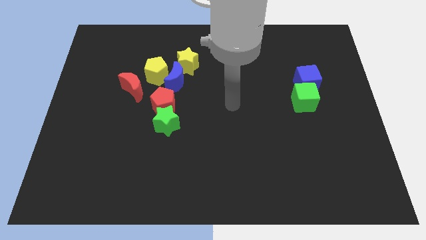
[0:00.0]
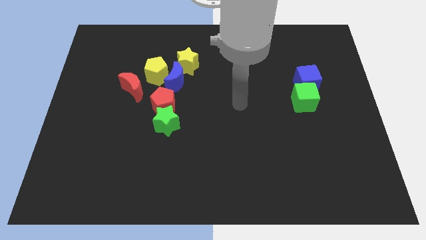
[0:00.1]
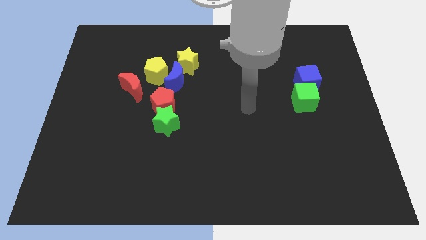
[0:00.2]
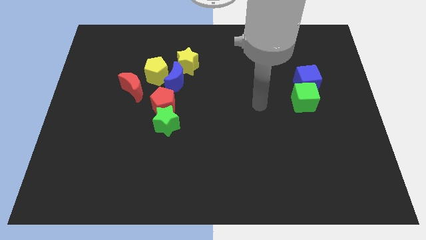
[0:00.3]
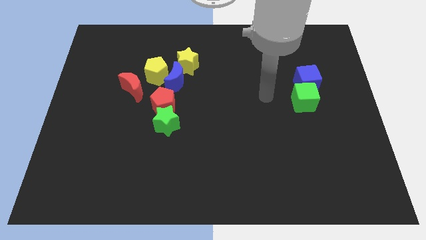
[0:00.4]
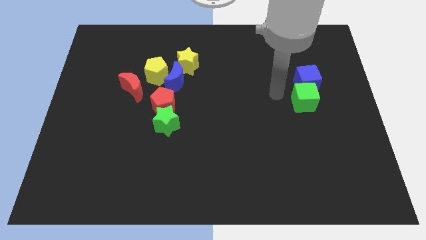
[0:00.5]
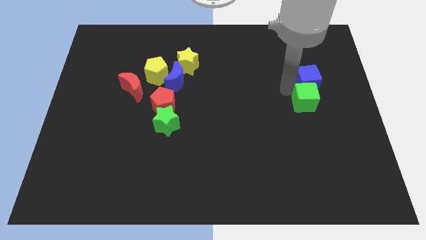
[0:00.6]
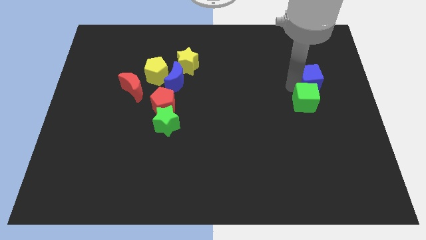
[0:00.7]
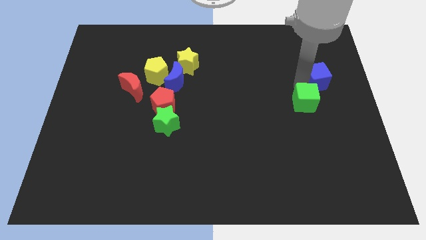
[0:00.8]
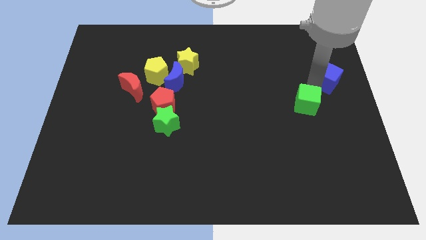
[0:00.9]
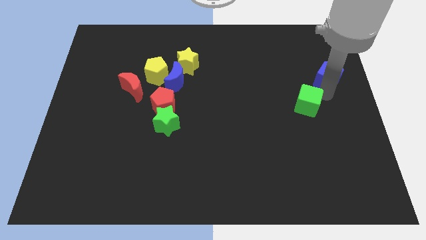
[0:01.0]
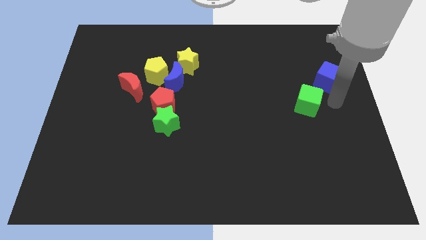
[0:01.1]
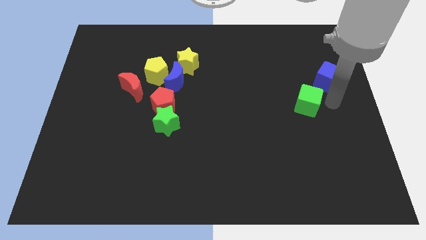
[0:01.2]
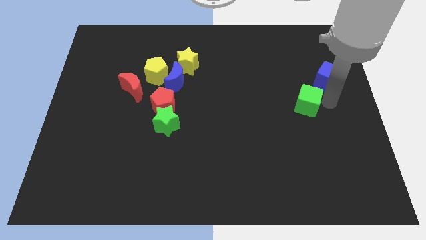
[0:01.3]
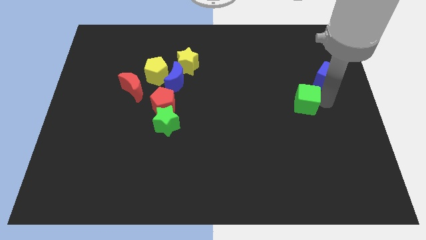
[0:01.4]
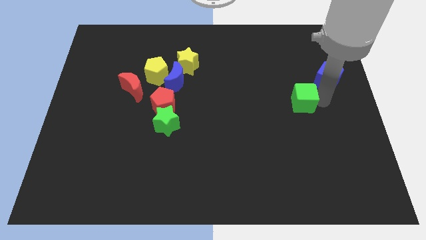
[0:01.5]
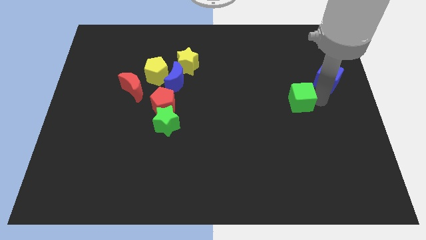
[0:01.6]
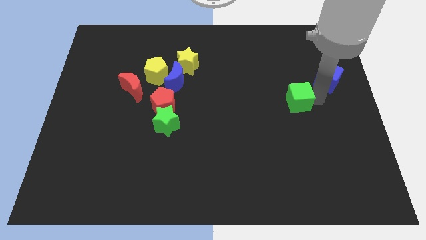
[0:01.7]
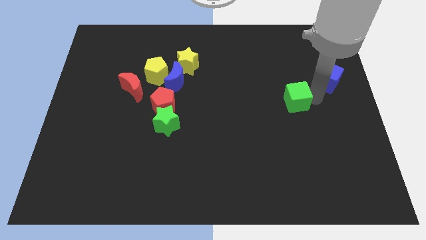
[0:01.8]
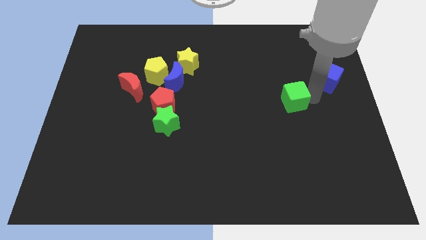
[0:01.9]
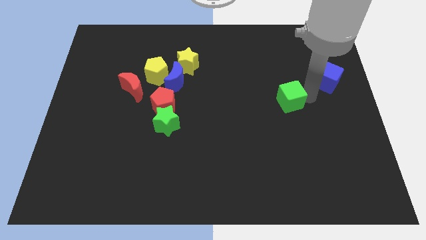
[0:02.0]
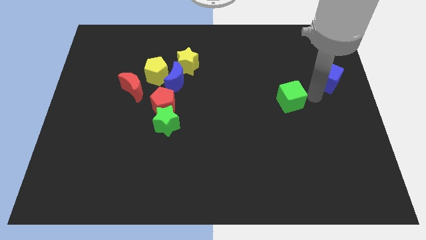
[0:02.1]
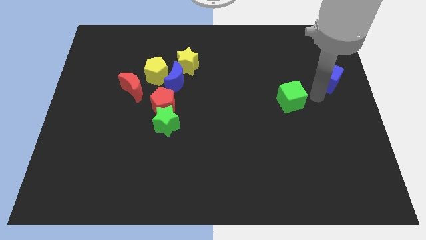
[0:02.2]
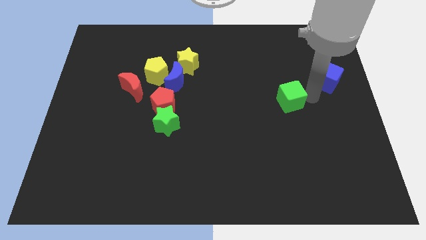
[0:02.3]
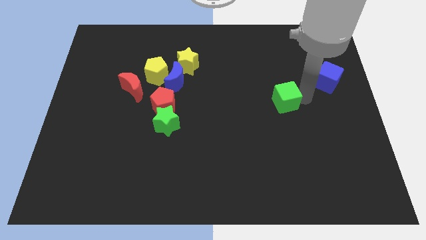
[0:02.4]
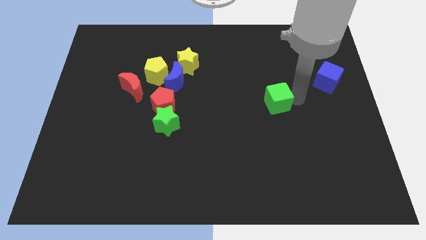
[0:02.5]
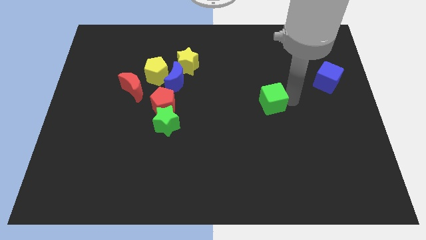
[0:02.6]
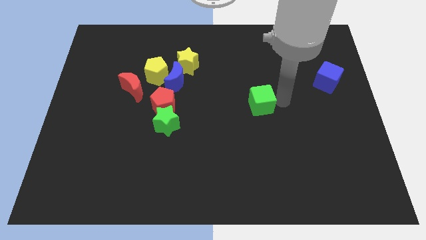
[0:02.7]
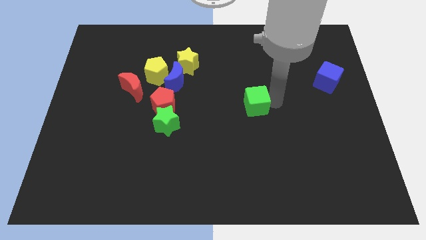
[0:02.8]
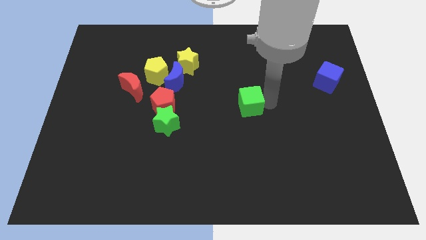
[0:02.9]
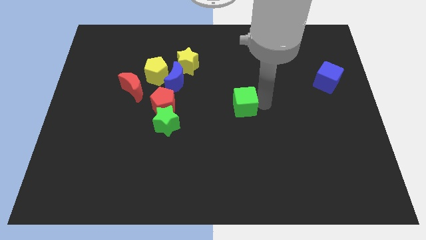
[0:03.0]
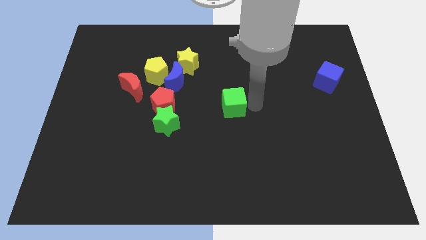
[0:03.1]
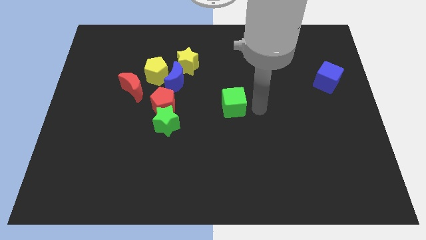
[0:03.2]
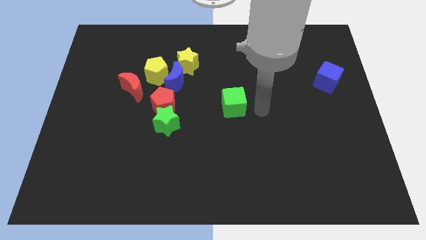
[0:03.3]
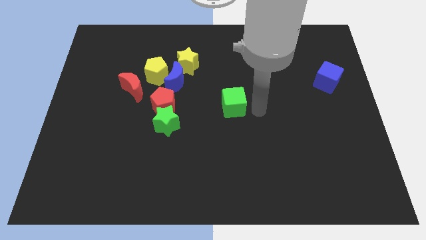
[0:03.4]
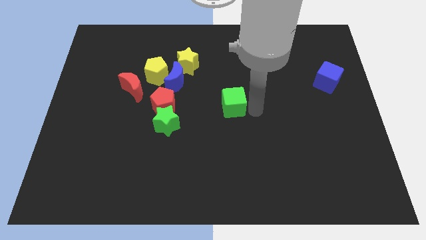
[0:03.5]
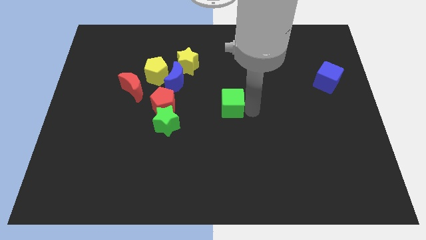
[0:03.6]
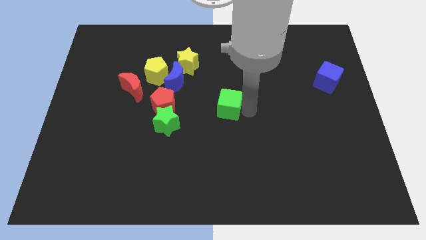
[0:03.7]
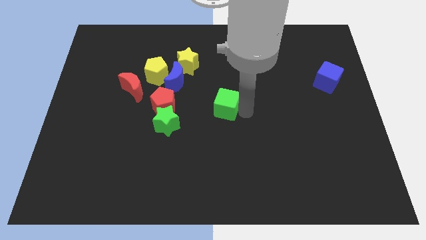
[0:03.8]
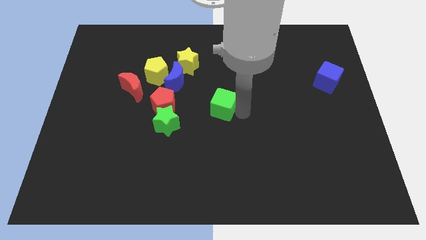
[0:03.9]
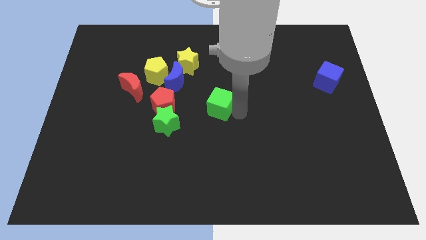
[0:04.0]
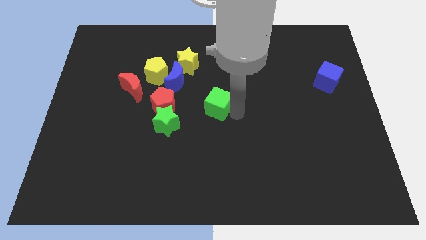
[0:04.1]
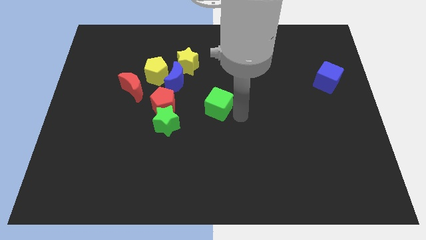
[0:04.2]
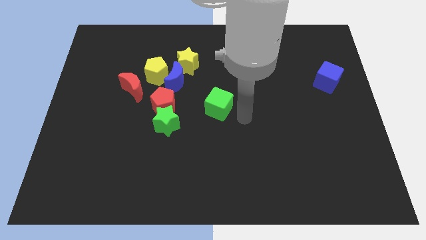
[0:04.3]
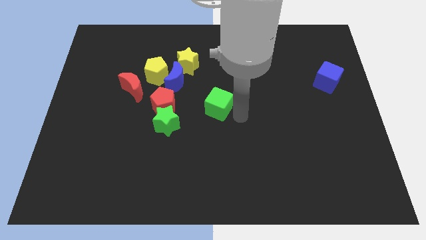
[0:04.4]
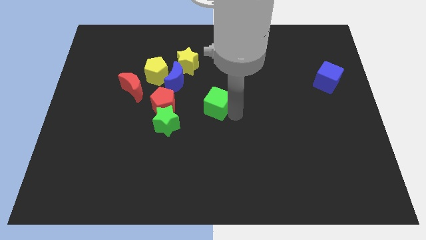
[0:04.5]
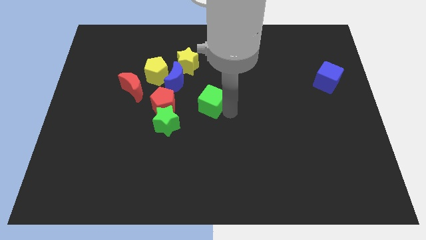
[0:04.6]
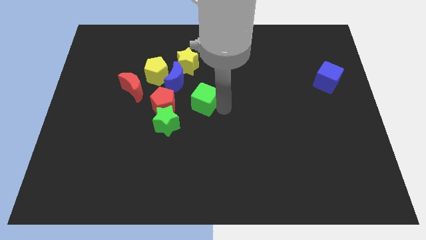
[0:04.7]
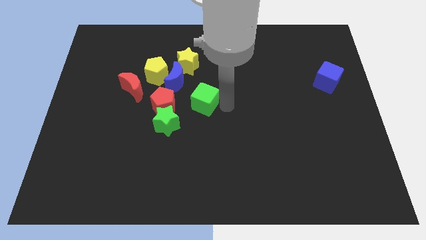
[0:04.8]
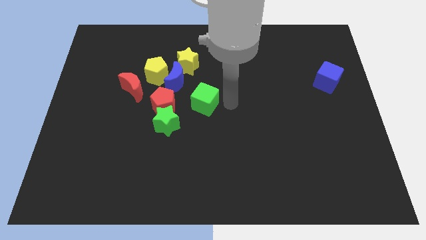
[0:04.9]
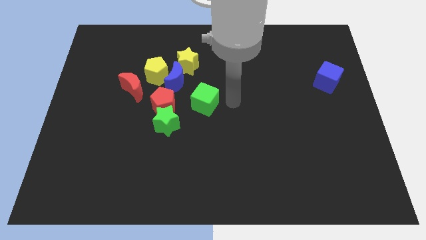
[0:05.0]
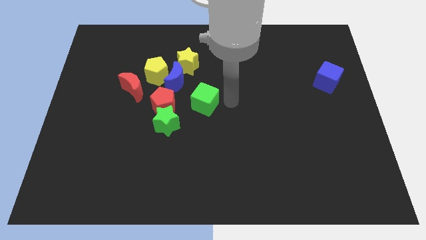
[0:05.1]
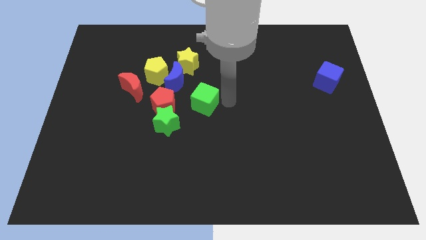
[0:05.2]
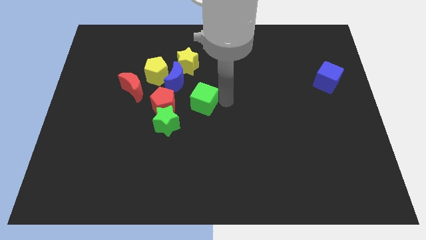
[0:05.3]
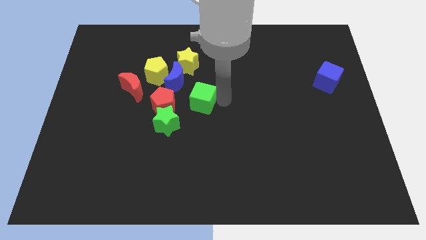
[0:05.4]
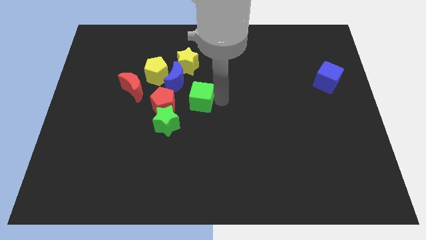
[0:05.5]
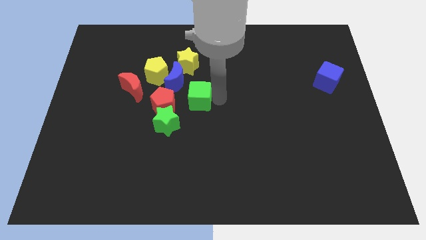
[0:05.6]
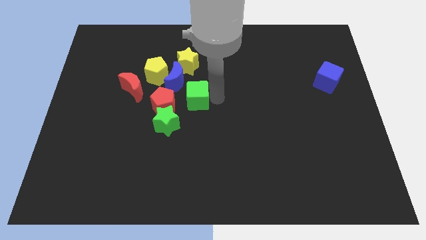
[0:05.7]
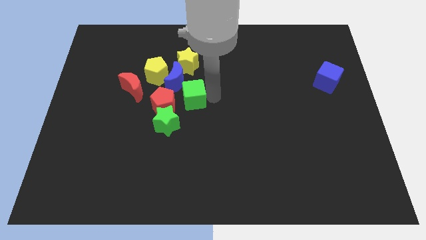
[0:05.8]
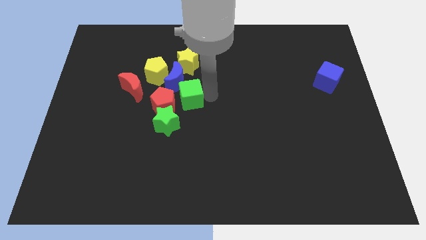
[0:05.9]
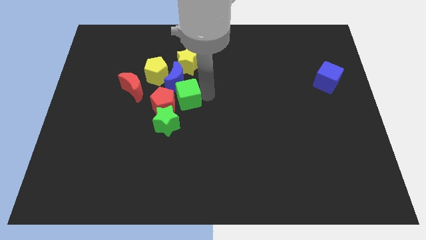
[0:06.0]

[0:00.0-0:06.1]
push the green cube towards the red pentagon

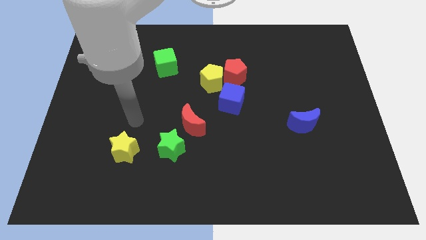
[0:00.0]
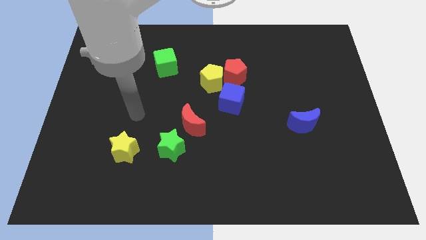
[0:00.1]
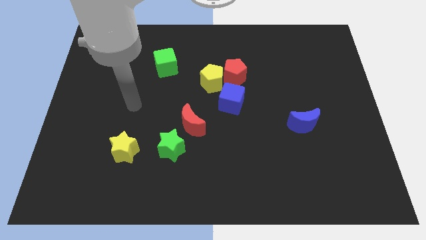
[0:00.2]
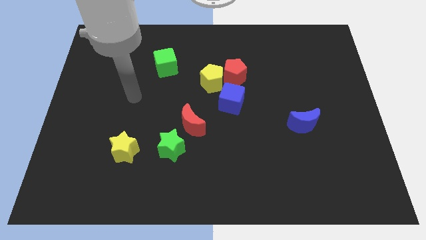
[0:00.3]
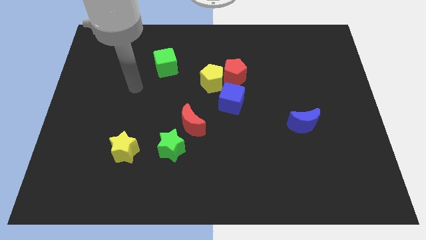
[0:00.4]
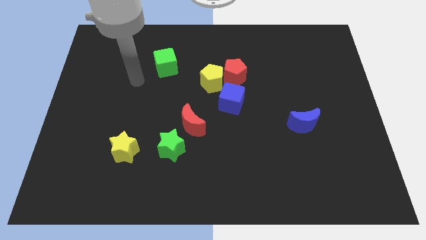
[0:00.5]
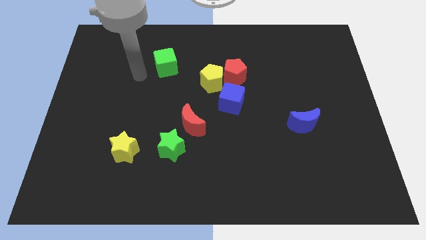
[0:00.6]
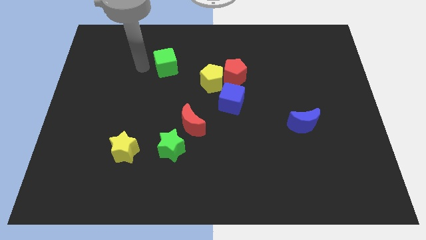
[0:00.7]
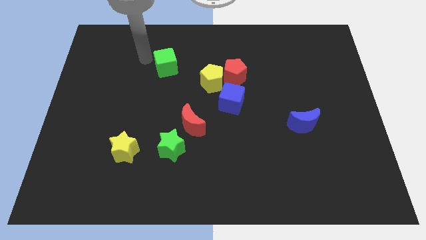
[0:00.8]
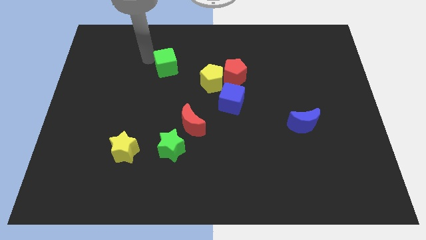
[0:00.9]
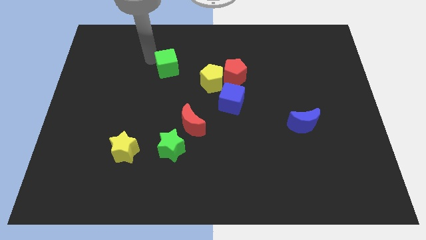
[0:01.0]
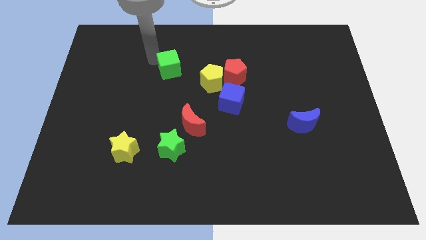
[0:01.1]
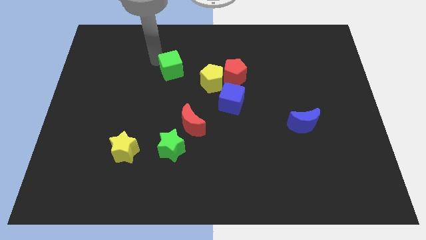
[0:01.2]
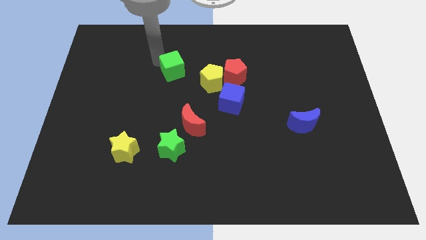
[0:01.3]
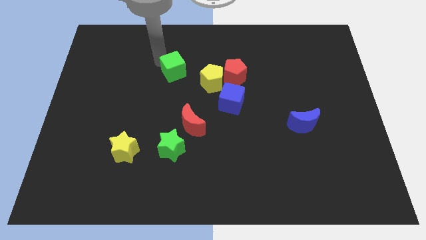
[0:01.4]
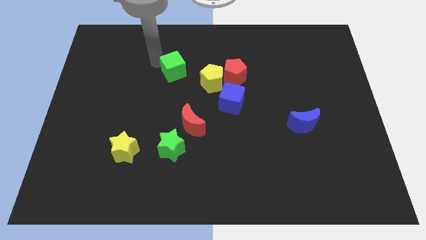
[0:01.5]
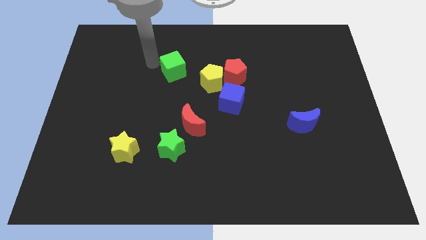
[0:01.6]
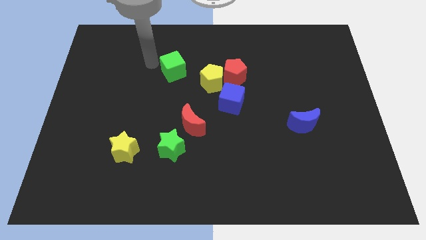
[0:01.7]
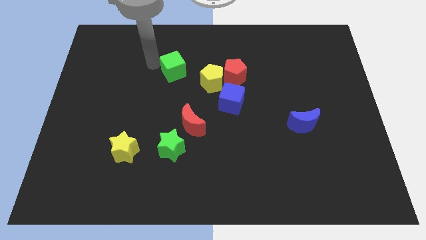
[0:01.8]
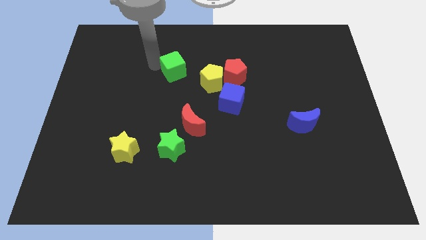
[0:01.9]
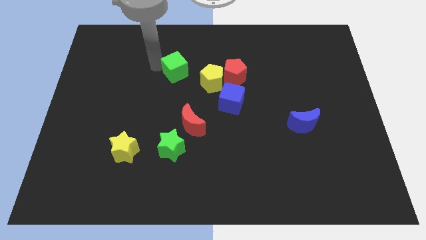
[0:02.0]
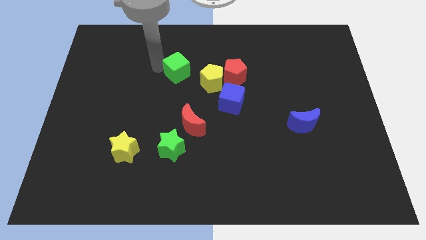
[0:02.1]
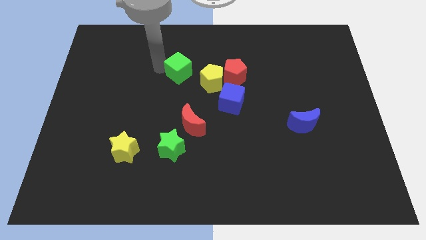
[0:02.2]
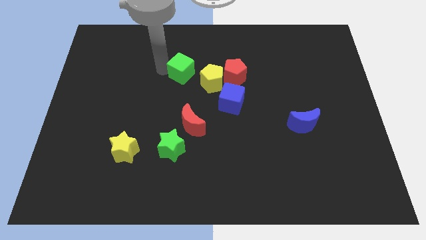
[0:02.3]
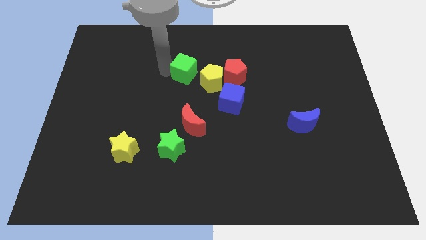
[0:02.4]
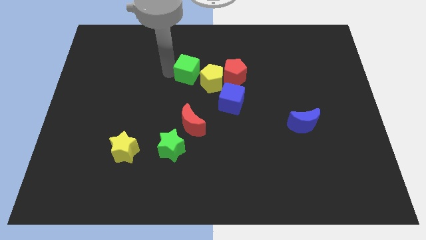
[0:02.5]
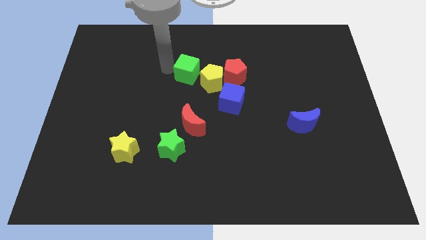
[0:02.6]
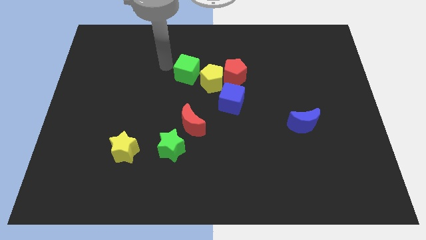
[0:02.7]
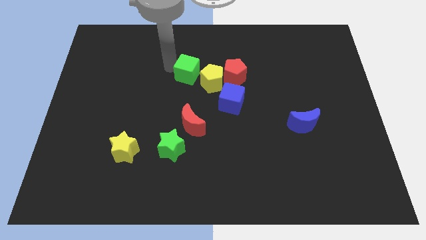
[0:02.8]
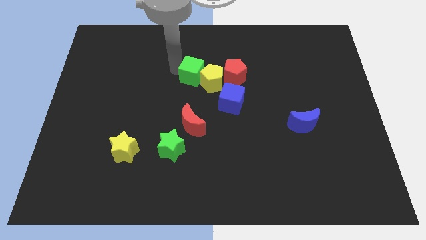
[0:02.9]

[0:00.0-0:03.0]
slide the green cube close to the yellow pentagon
